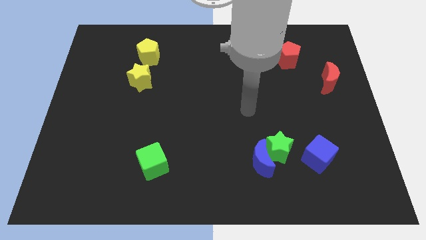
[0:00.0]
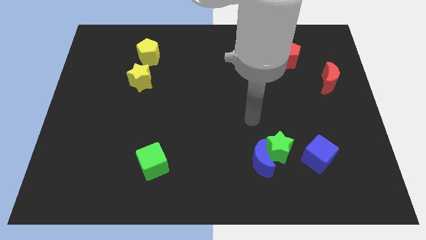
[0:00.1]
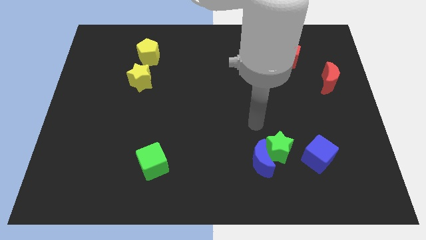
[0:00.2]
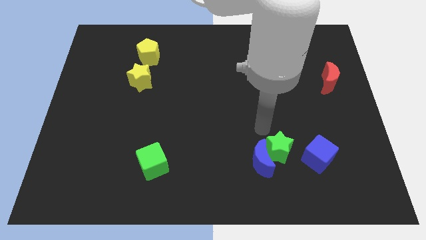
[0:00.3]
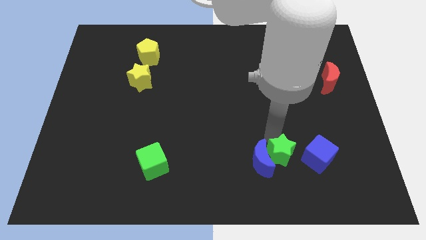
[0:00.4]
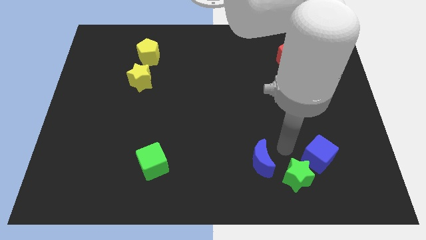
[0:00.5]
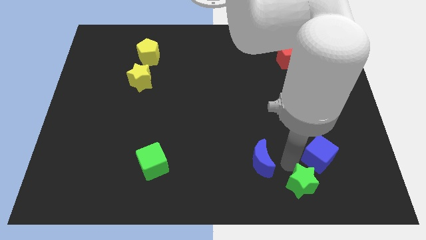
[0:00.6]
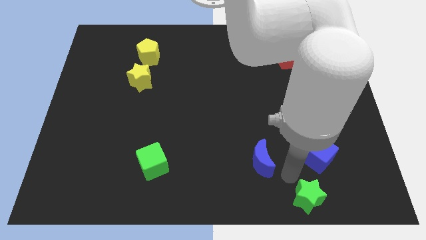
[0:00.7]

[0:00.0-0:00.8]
move the blue moon away from the green star

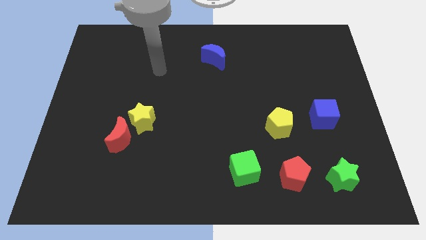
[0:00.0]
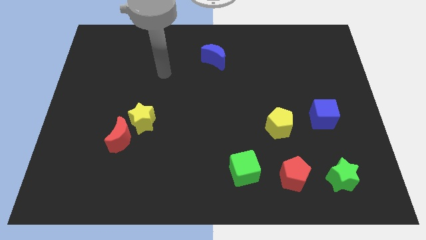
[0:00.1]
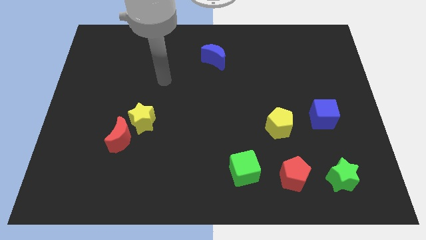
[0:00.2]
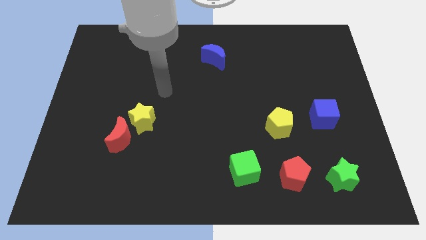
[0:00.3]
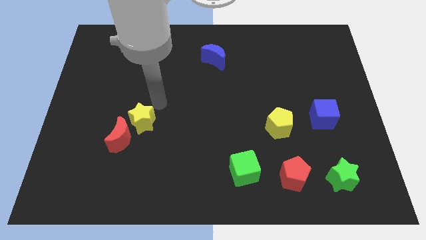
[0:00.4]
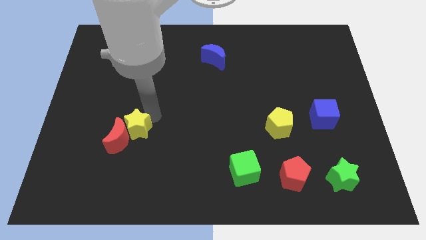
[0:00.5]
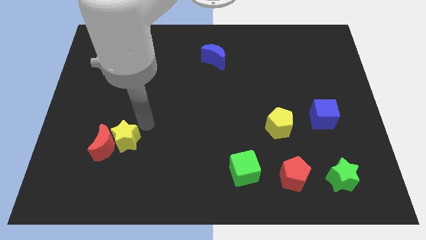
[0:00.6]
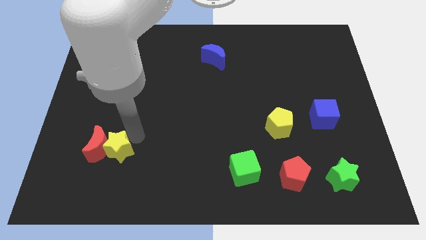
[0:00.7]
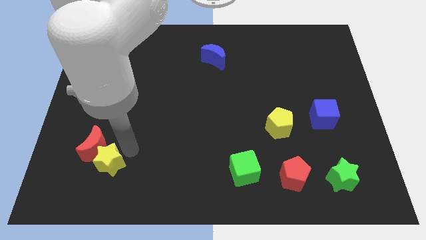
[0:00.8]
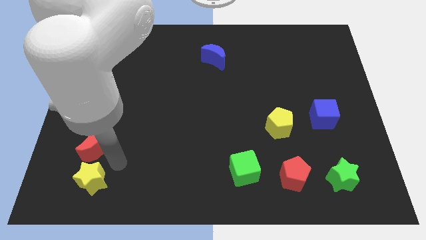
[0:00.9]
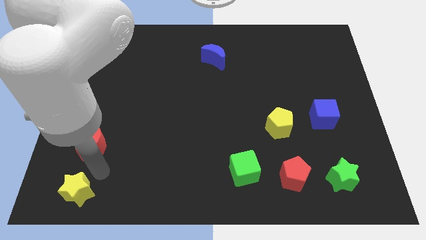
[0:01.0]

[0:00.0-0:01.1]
move the red moon away from the yellow star

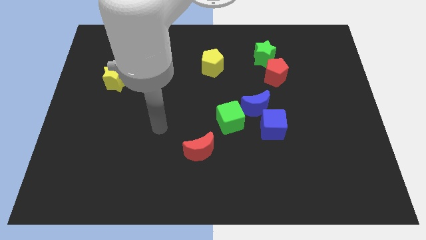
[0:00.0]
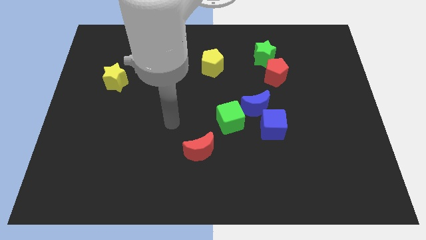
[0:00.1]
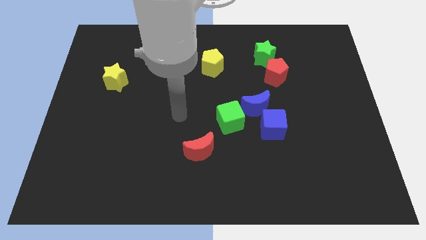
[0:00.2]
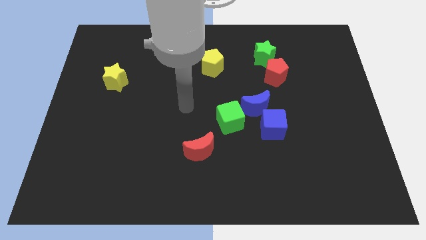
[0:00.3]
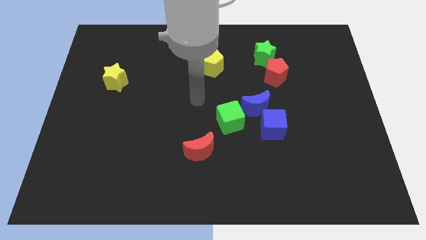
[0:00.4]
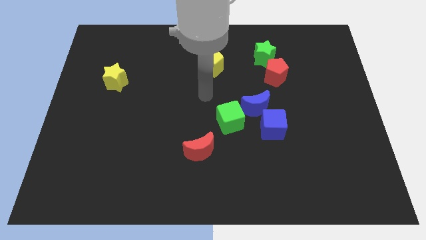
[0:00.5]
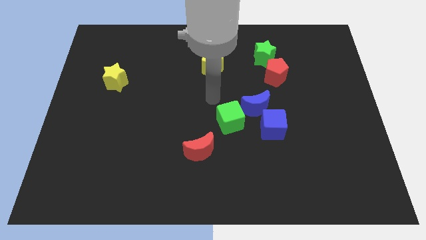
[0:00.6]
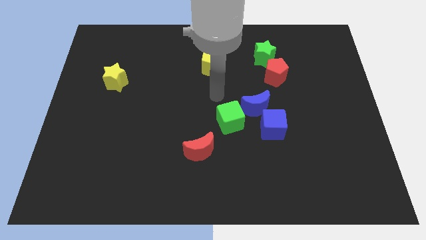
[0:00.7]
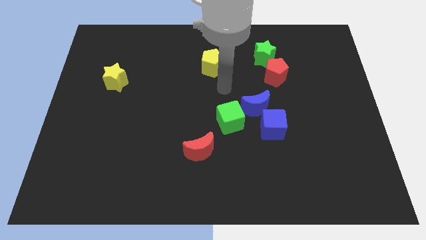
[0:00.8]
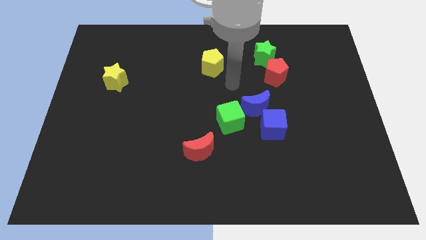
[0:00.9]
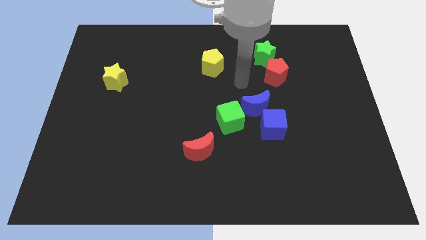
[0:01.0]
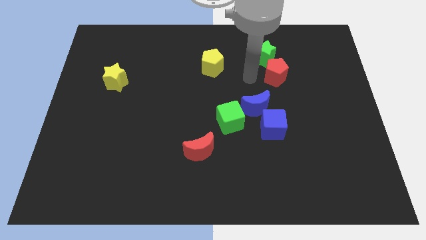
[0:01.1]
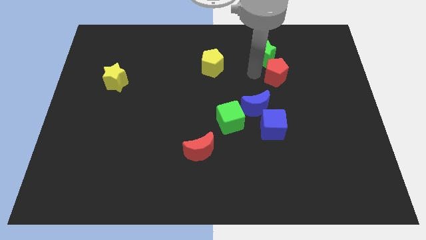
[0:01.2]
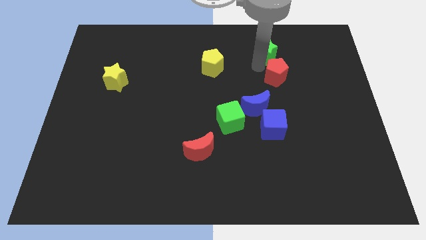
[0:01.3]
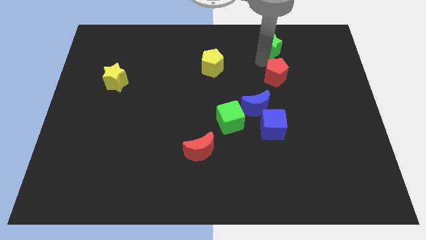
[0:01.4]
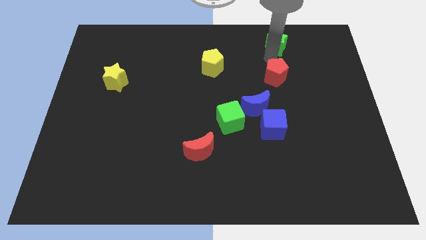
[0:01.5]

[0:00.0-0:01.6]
pull the red pentagon apart from the green star

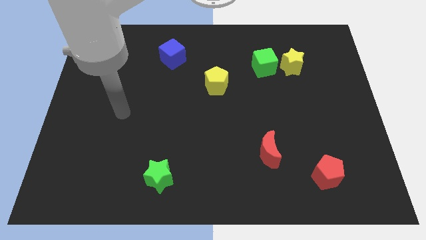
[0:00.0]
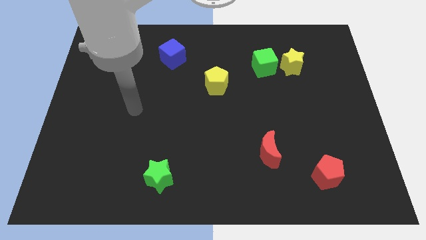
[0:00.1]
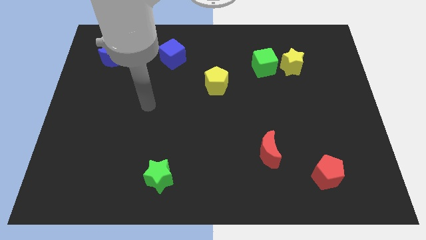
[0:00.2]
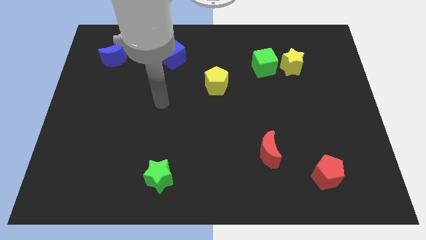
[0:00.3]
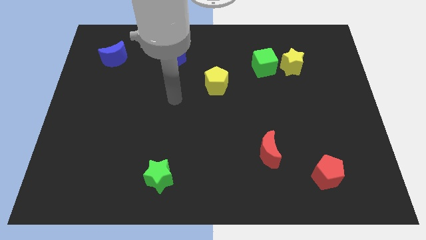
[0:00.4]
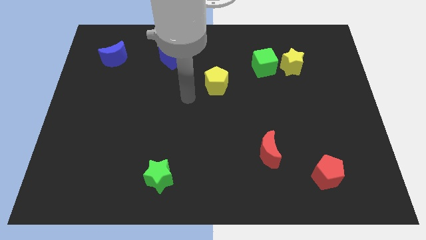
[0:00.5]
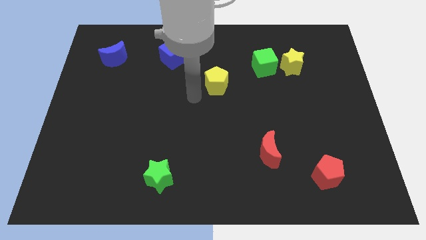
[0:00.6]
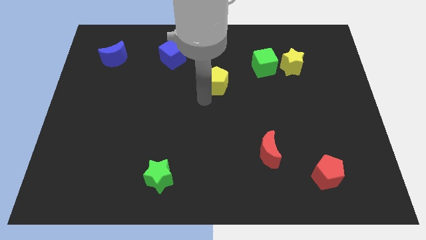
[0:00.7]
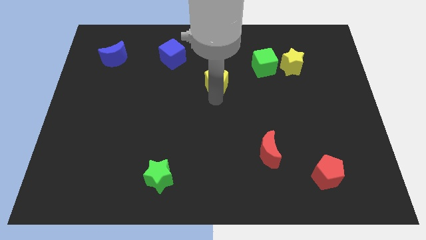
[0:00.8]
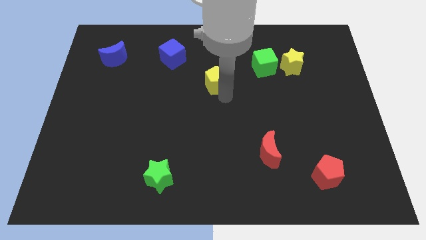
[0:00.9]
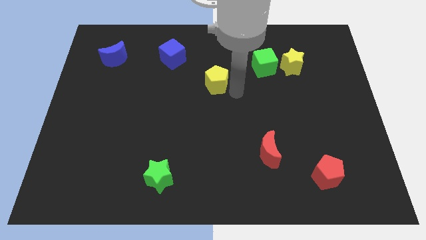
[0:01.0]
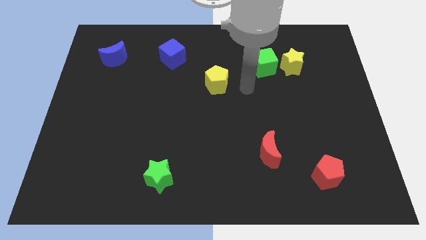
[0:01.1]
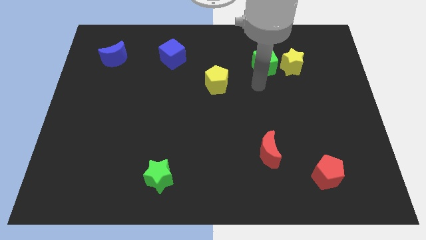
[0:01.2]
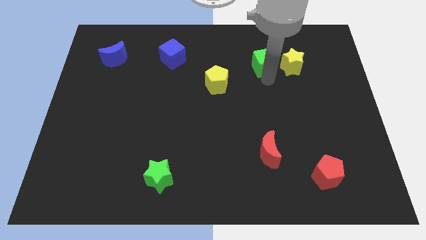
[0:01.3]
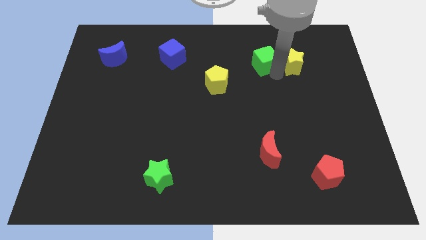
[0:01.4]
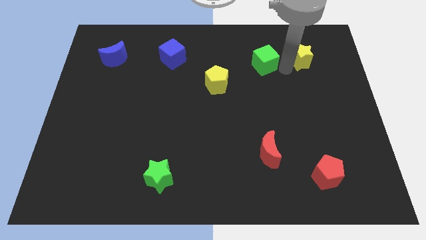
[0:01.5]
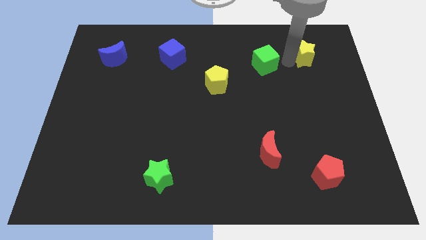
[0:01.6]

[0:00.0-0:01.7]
move the green cube away from the yellow star

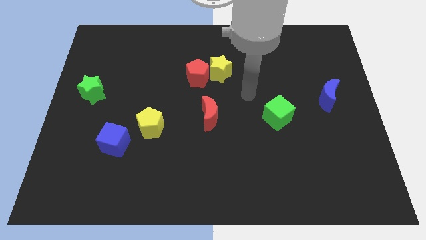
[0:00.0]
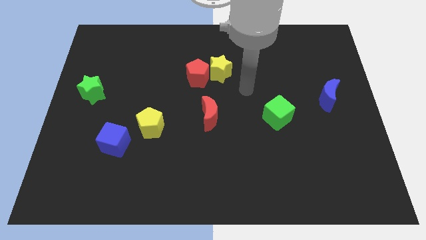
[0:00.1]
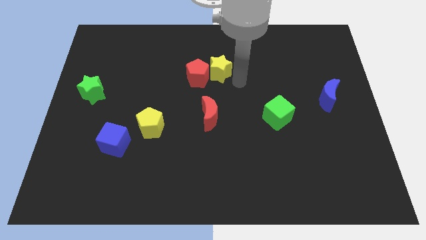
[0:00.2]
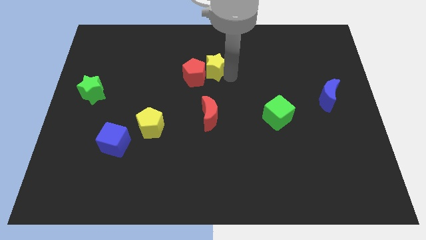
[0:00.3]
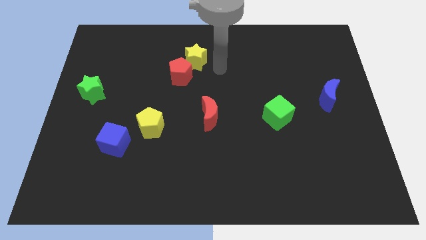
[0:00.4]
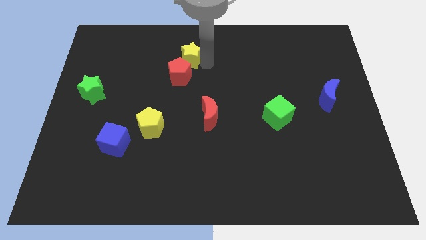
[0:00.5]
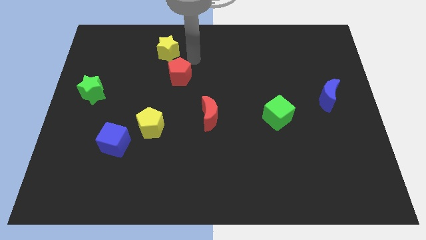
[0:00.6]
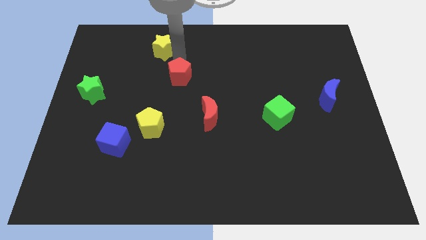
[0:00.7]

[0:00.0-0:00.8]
move the red pentagon away from the yellow star

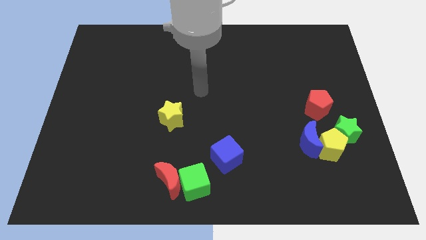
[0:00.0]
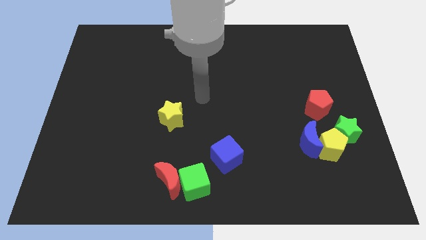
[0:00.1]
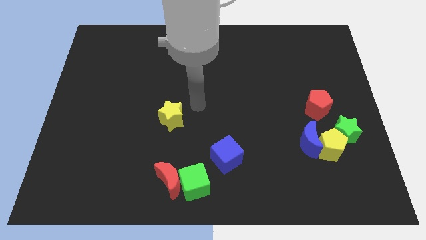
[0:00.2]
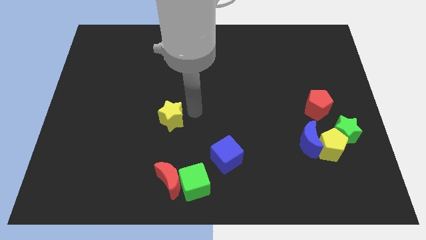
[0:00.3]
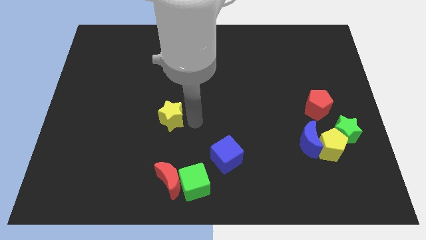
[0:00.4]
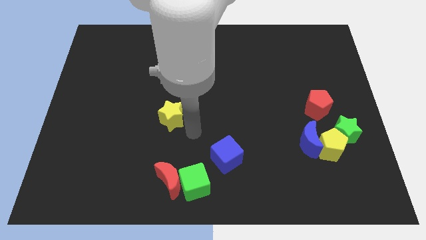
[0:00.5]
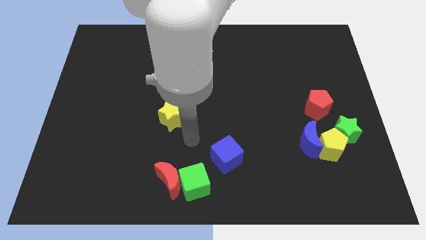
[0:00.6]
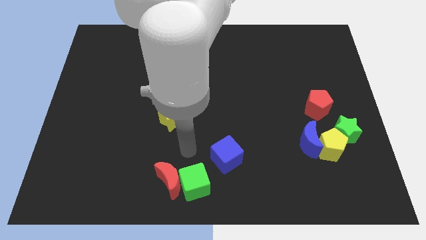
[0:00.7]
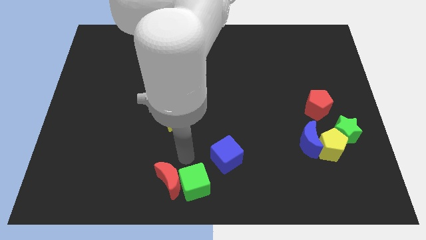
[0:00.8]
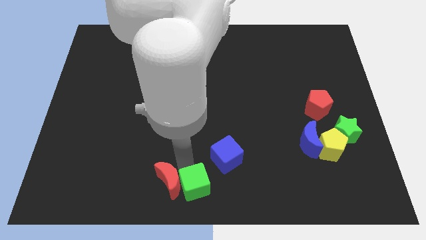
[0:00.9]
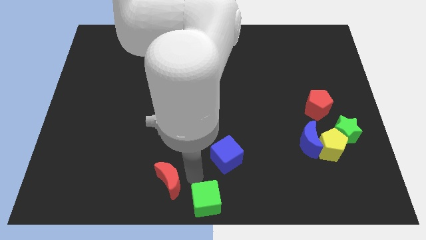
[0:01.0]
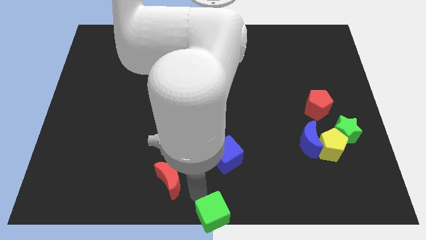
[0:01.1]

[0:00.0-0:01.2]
separate the red moon from the green cube

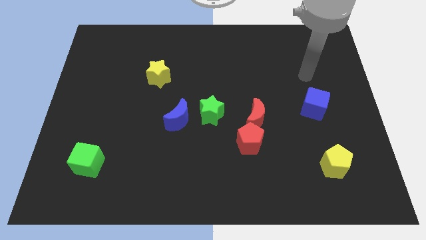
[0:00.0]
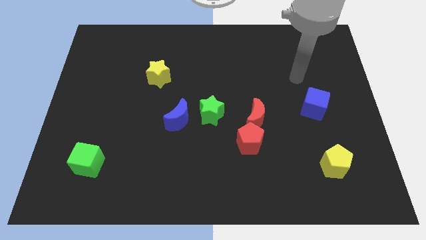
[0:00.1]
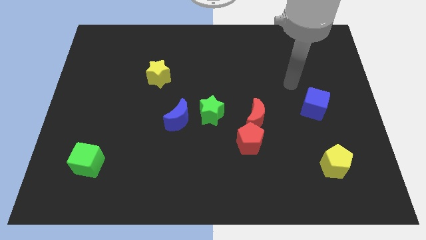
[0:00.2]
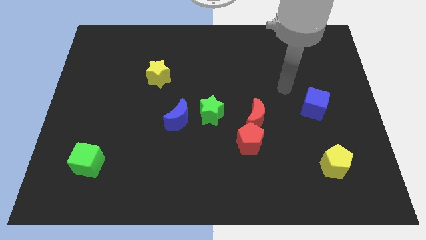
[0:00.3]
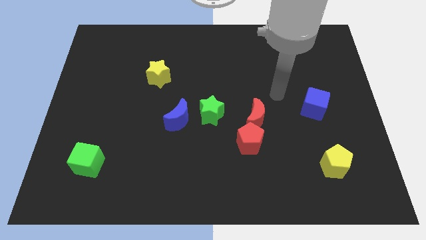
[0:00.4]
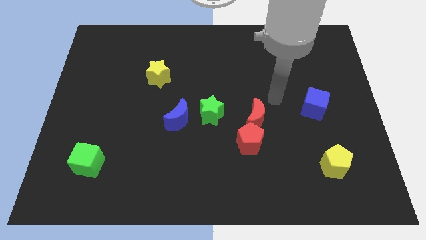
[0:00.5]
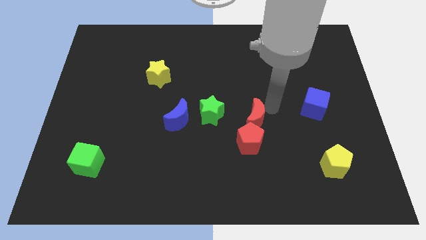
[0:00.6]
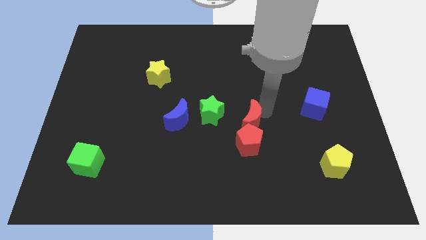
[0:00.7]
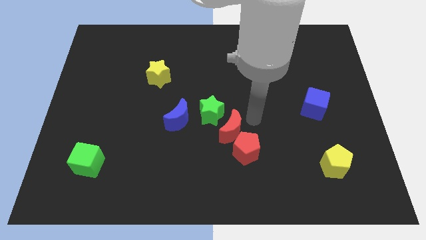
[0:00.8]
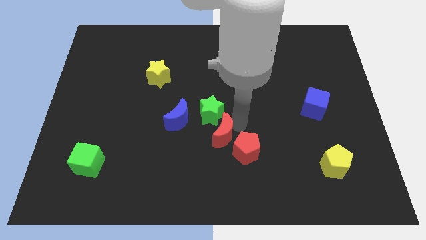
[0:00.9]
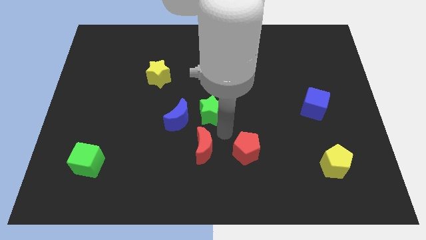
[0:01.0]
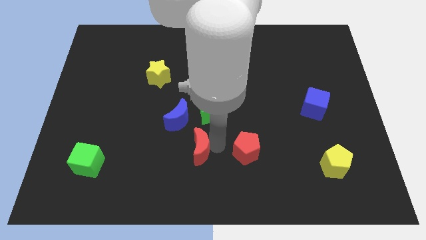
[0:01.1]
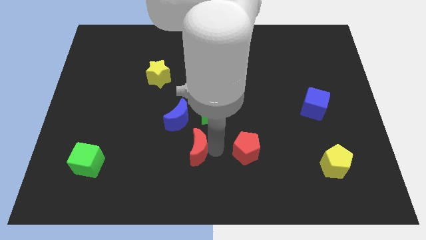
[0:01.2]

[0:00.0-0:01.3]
pull the red pentagon apart from the red moon

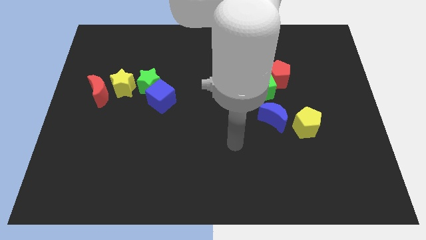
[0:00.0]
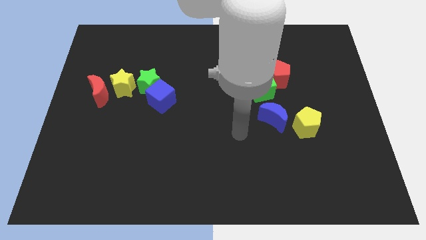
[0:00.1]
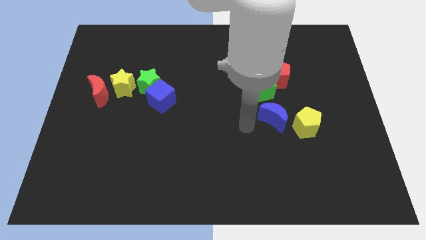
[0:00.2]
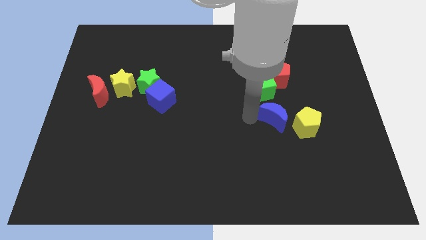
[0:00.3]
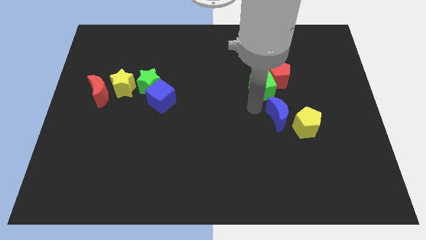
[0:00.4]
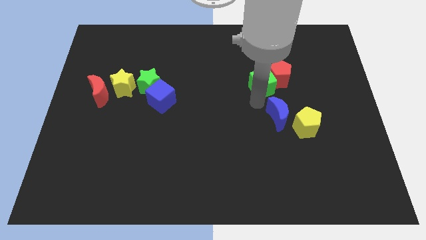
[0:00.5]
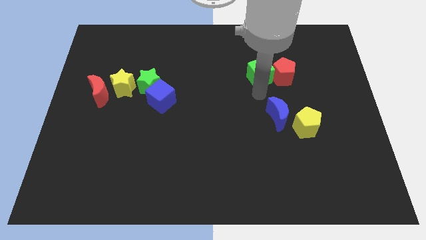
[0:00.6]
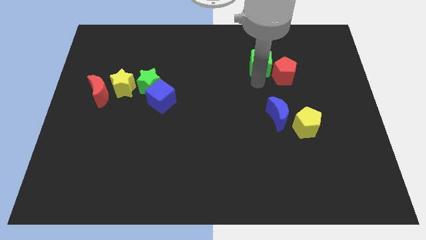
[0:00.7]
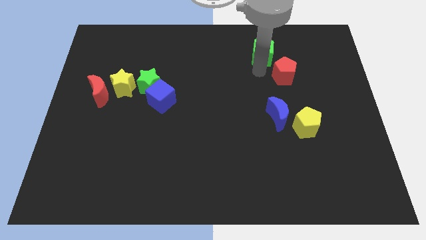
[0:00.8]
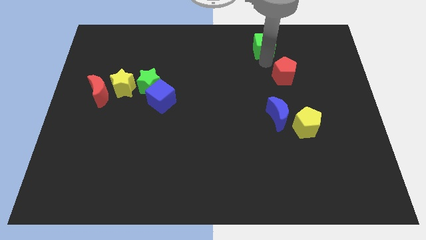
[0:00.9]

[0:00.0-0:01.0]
separate the red pentagon from the green cube
